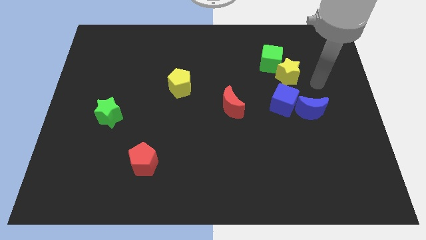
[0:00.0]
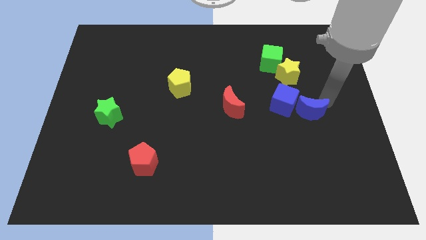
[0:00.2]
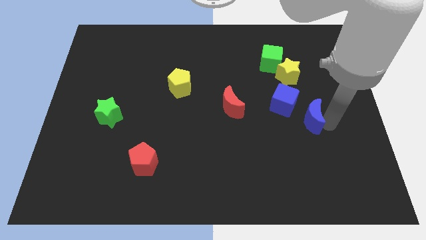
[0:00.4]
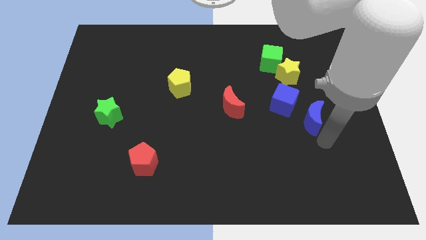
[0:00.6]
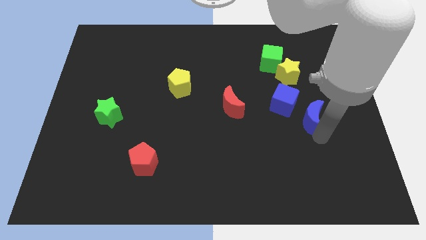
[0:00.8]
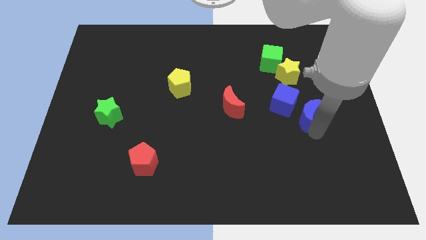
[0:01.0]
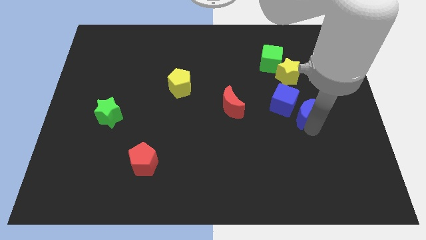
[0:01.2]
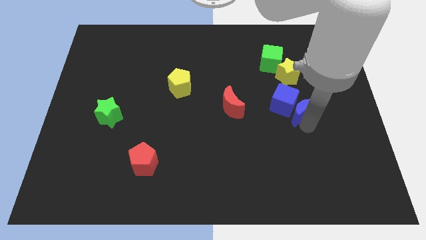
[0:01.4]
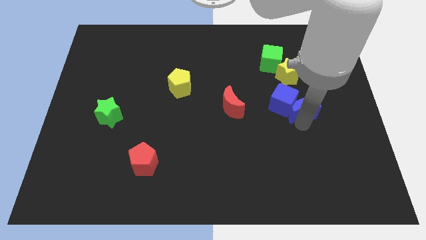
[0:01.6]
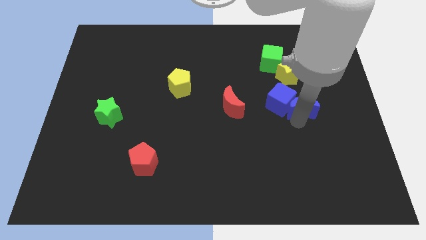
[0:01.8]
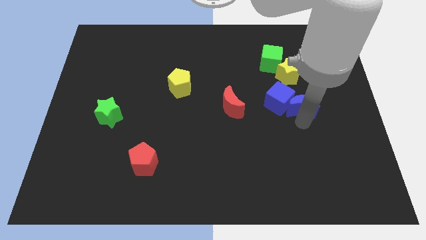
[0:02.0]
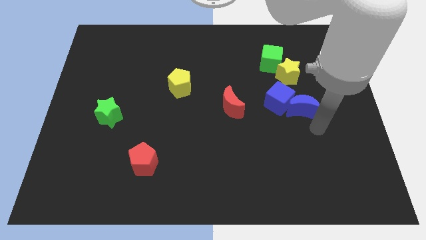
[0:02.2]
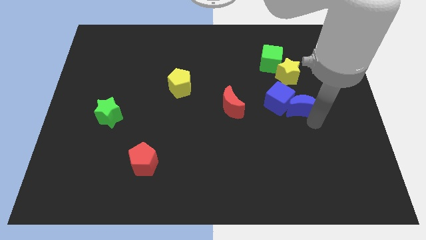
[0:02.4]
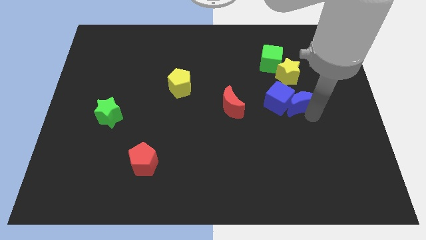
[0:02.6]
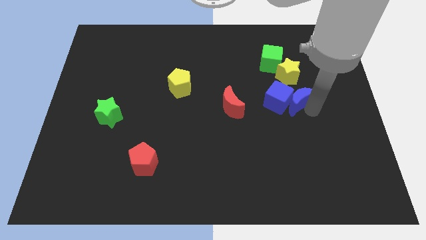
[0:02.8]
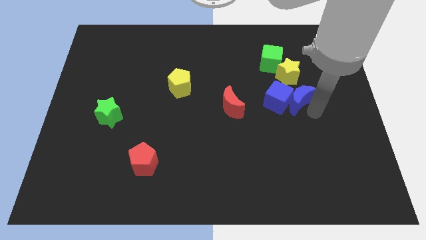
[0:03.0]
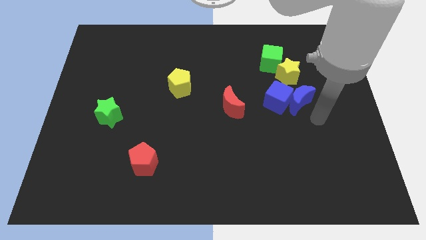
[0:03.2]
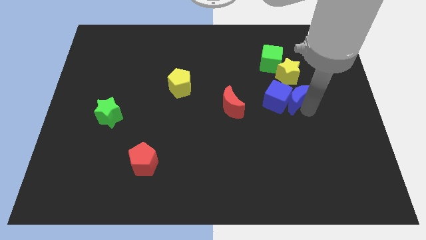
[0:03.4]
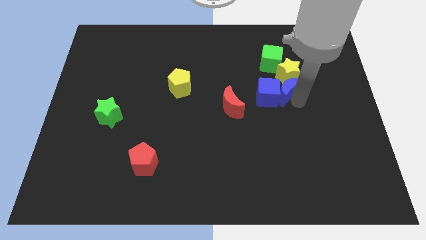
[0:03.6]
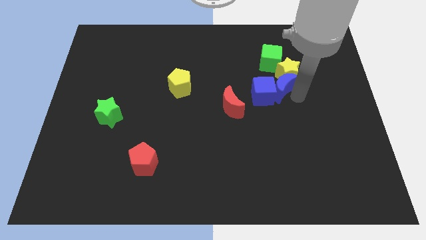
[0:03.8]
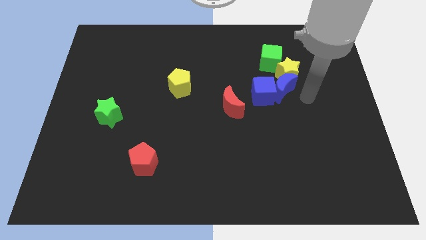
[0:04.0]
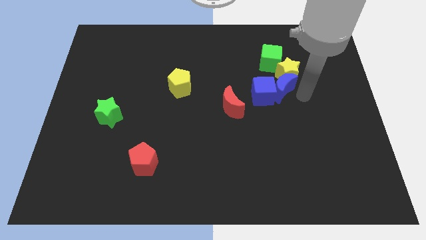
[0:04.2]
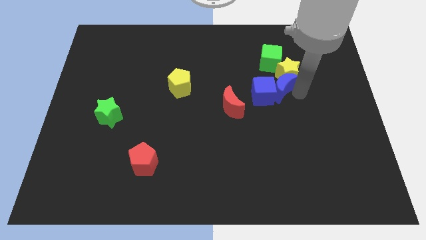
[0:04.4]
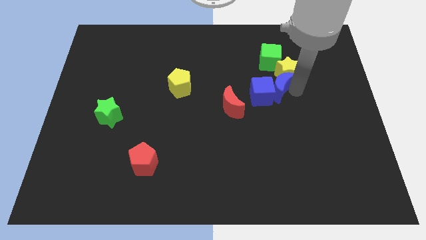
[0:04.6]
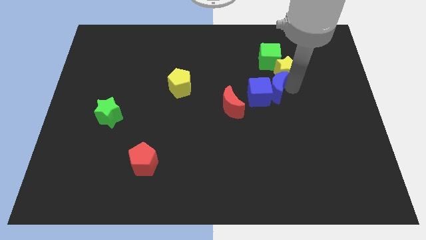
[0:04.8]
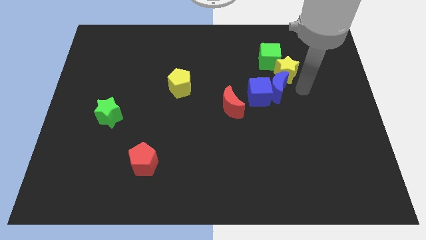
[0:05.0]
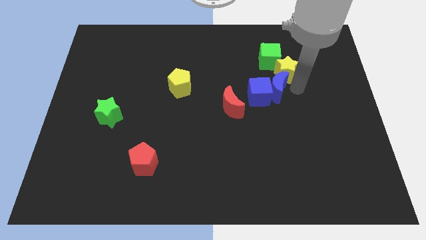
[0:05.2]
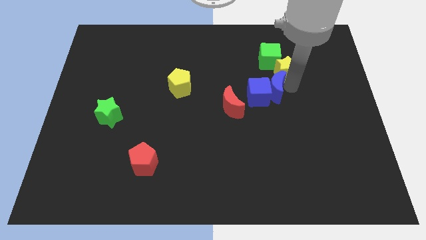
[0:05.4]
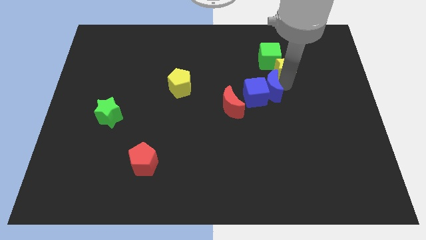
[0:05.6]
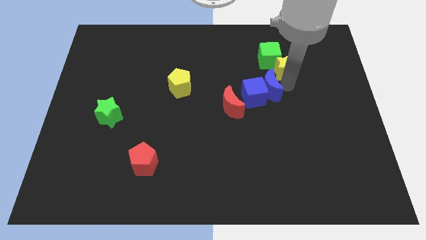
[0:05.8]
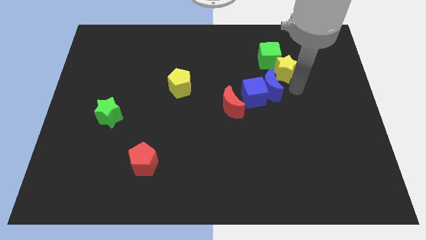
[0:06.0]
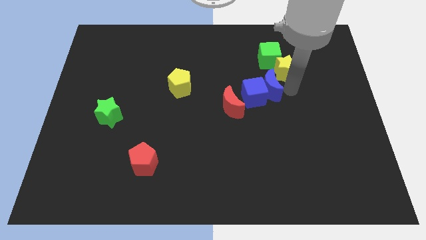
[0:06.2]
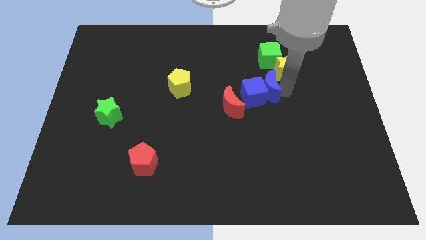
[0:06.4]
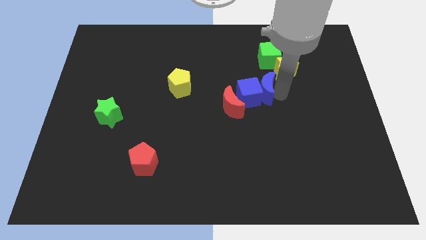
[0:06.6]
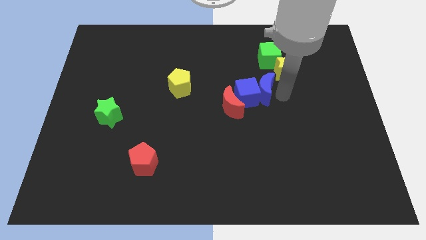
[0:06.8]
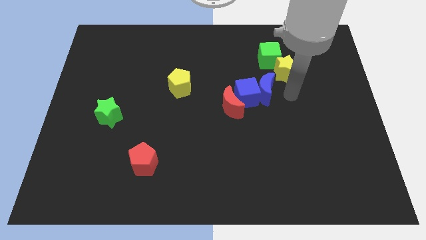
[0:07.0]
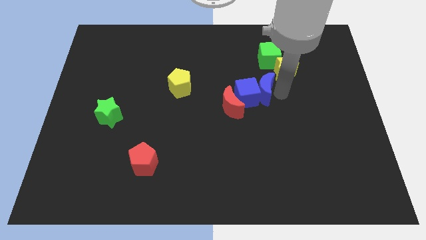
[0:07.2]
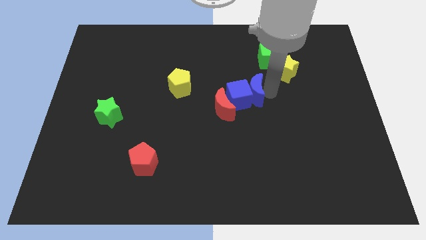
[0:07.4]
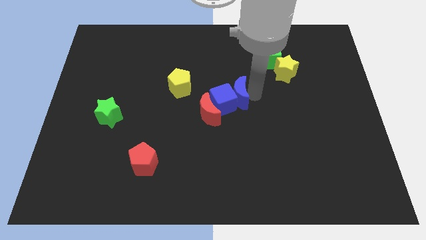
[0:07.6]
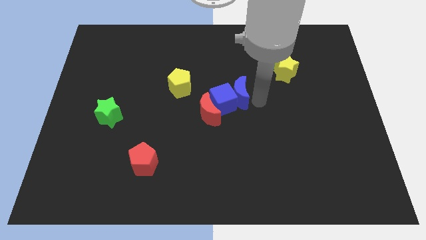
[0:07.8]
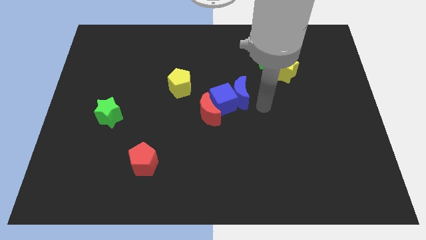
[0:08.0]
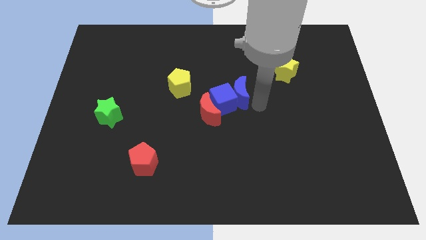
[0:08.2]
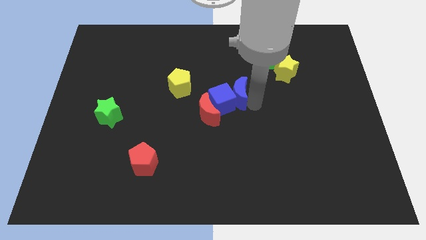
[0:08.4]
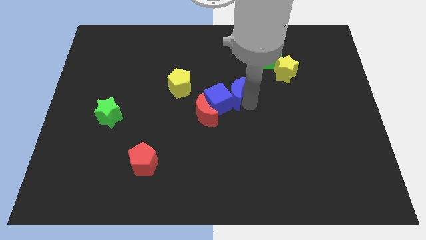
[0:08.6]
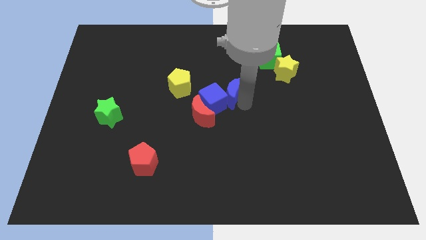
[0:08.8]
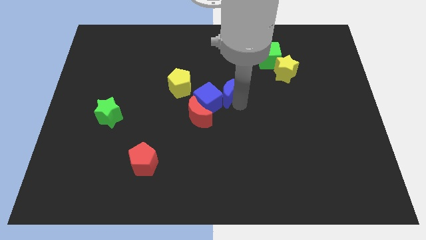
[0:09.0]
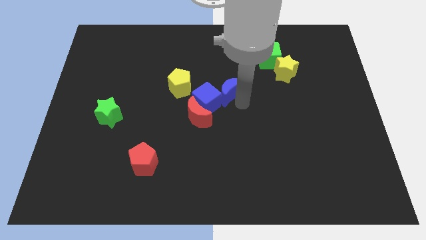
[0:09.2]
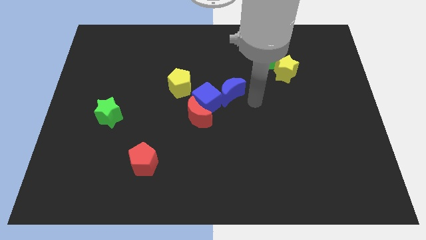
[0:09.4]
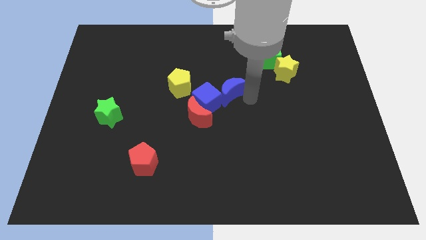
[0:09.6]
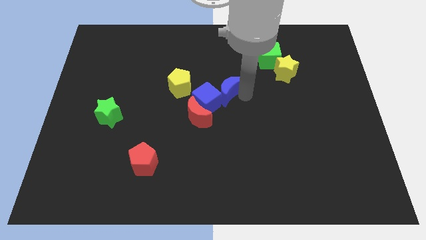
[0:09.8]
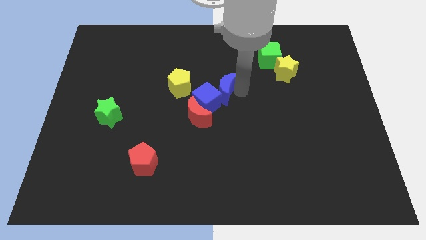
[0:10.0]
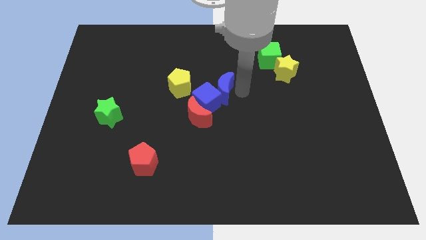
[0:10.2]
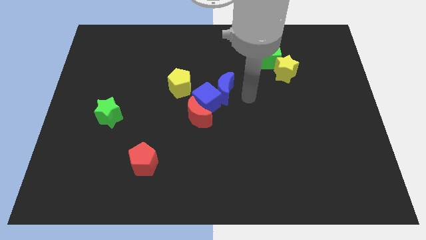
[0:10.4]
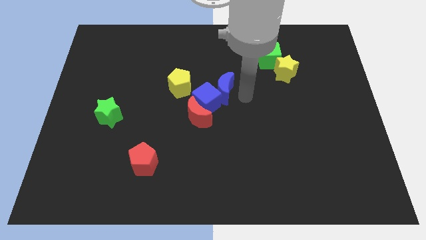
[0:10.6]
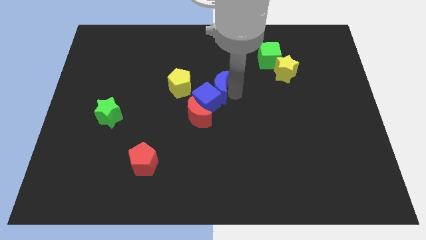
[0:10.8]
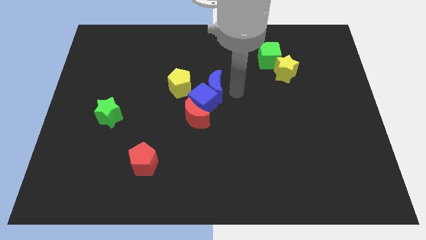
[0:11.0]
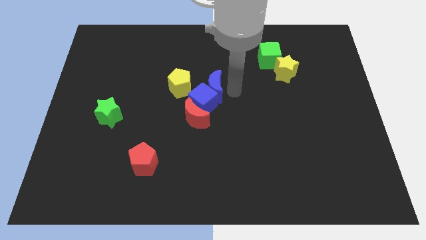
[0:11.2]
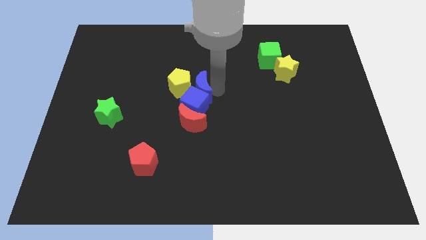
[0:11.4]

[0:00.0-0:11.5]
slide the blue moon close to the yellow pentagon

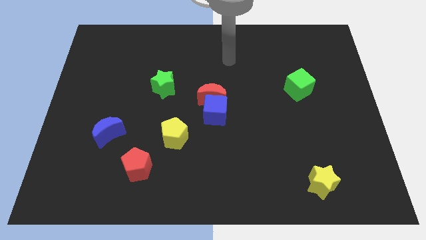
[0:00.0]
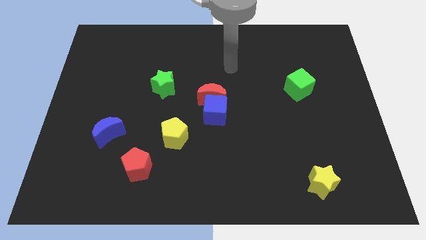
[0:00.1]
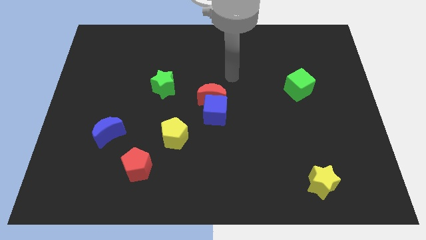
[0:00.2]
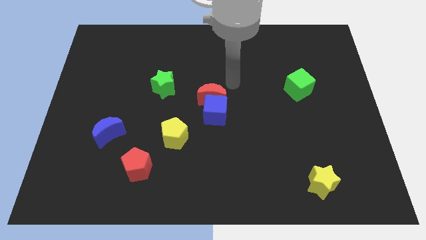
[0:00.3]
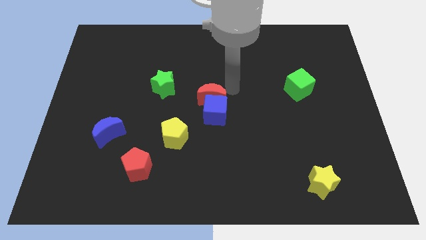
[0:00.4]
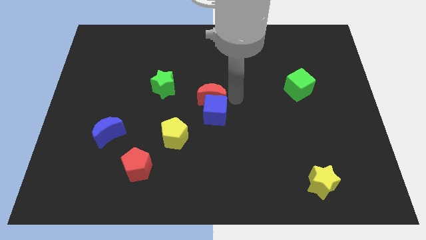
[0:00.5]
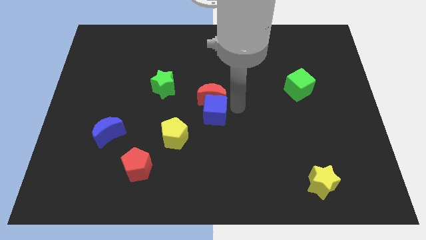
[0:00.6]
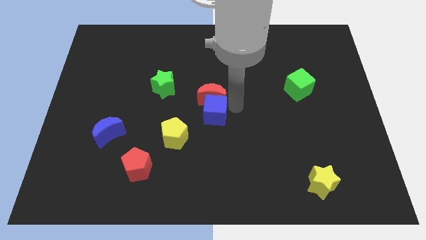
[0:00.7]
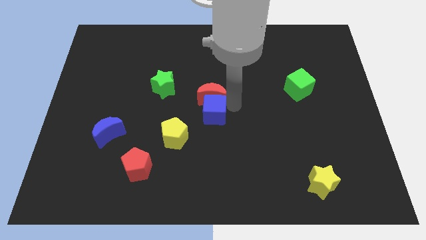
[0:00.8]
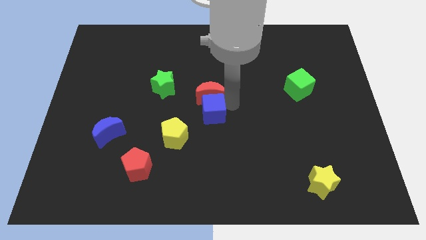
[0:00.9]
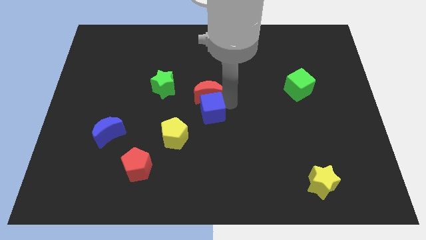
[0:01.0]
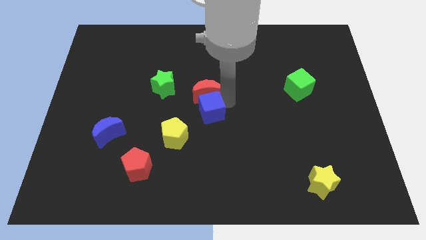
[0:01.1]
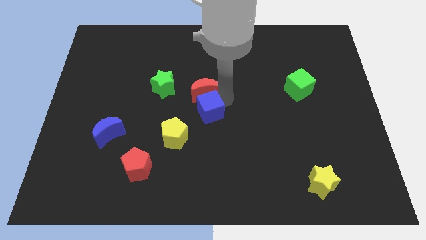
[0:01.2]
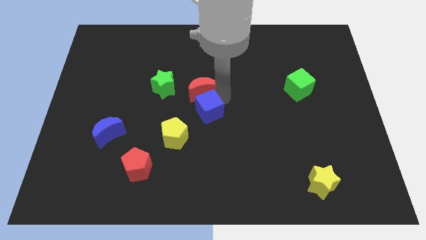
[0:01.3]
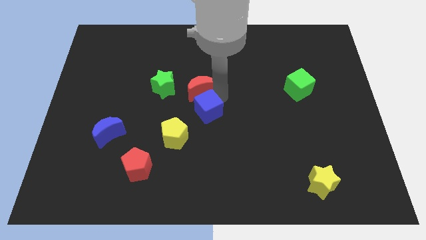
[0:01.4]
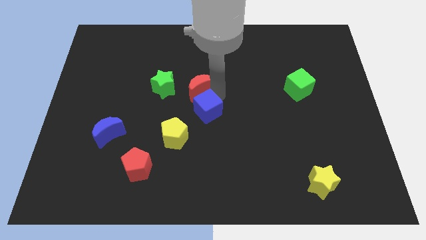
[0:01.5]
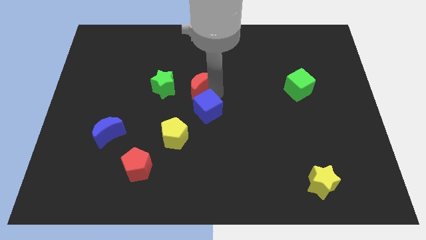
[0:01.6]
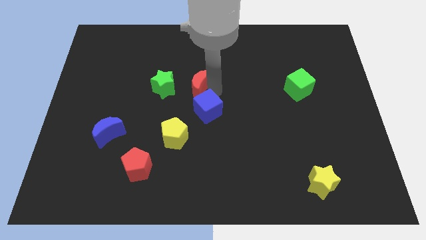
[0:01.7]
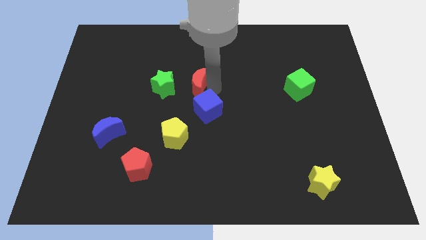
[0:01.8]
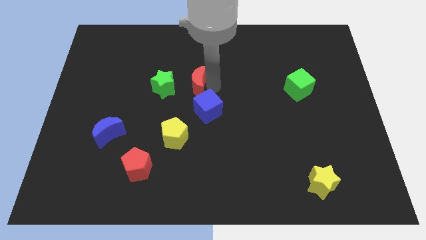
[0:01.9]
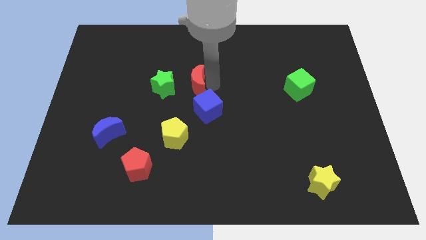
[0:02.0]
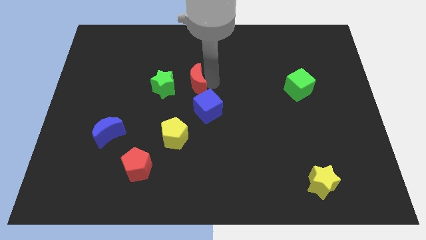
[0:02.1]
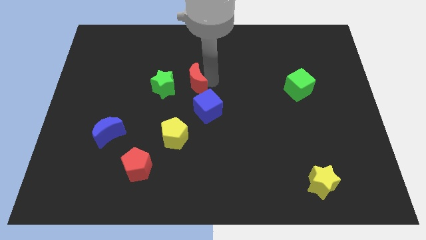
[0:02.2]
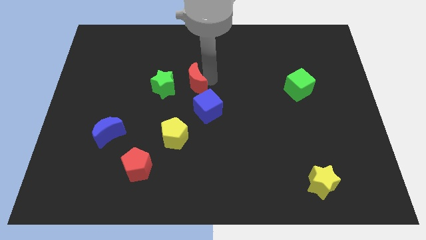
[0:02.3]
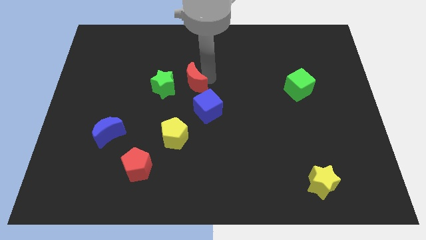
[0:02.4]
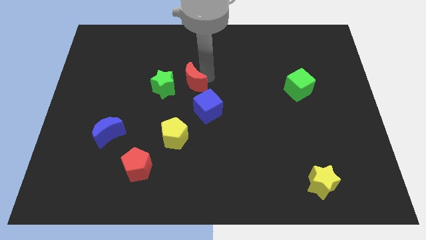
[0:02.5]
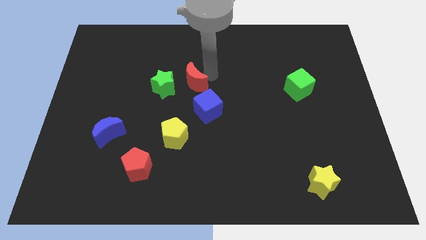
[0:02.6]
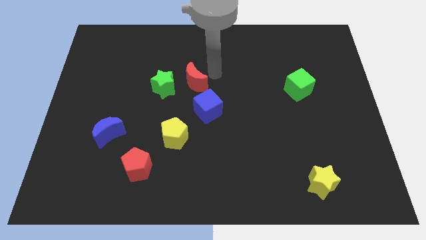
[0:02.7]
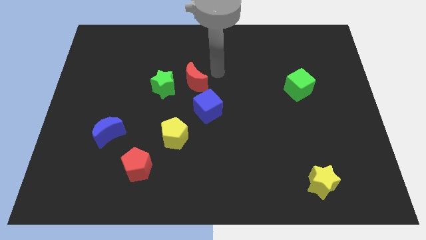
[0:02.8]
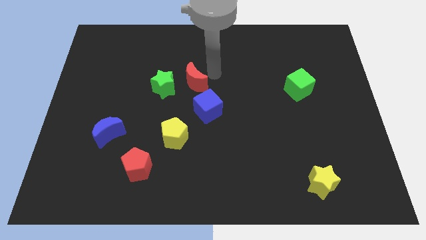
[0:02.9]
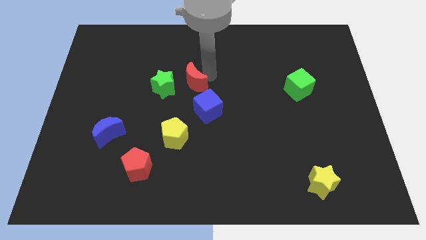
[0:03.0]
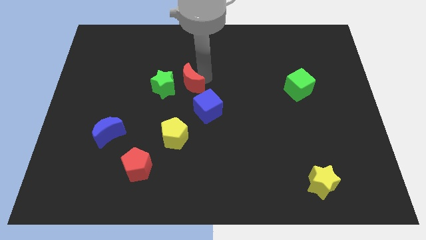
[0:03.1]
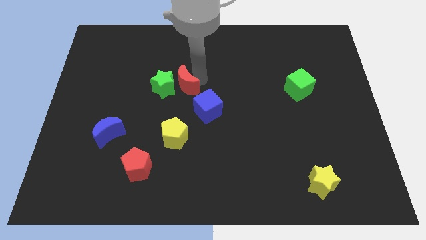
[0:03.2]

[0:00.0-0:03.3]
move the red moon towards the green star
